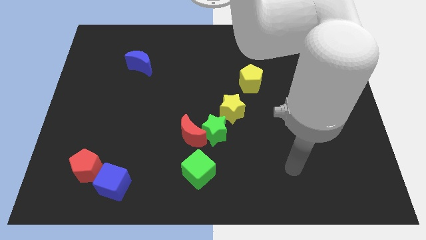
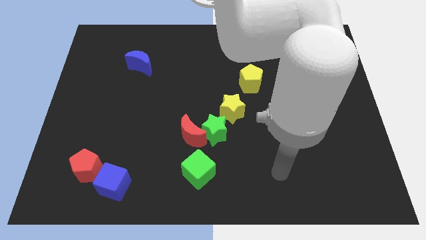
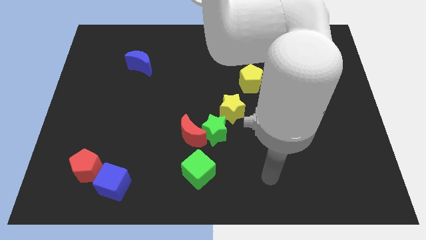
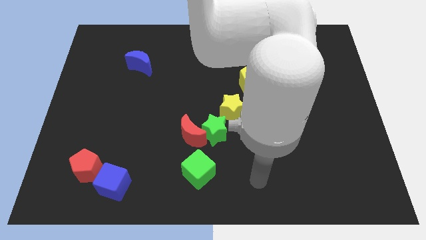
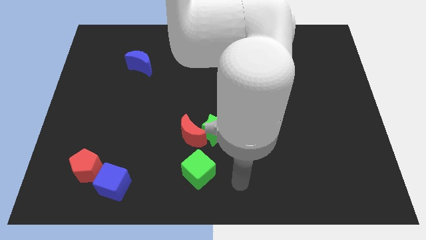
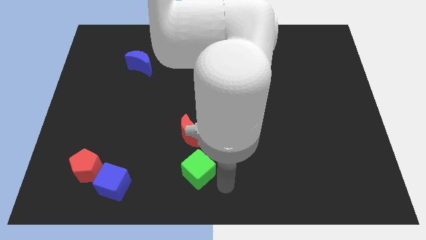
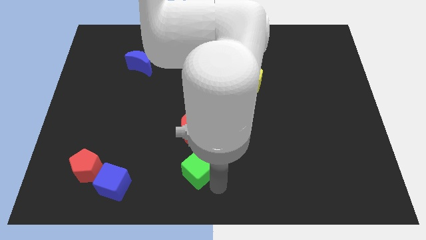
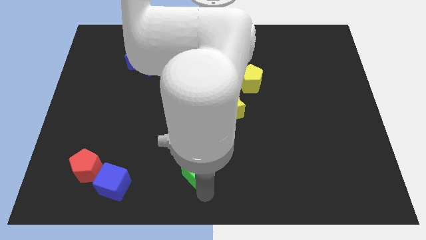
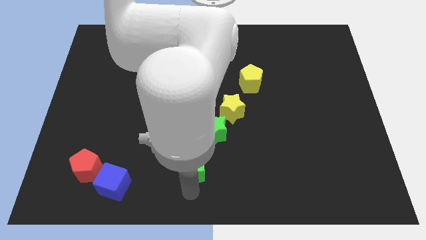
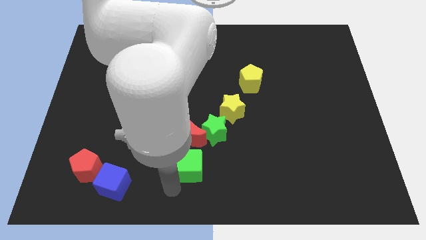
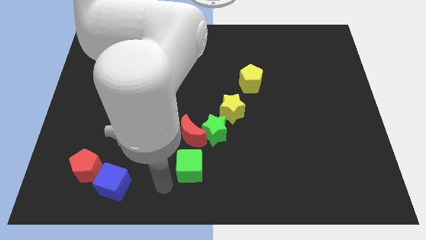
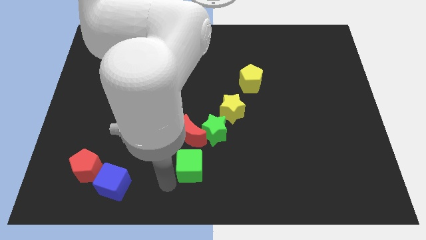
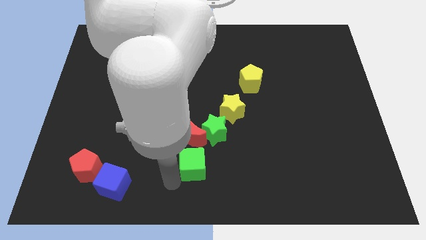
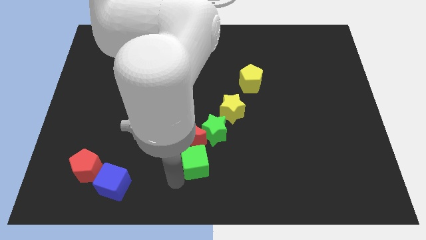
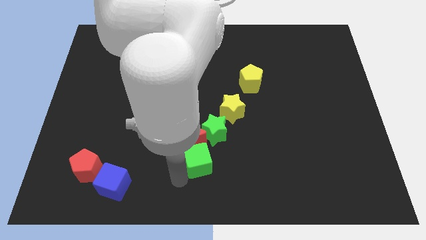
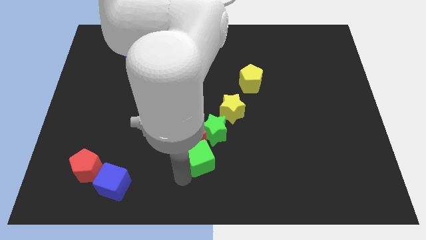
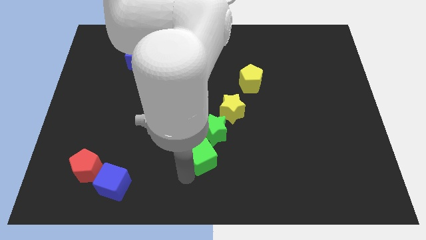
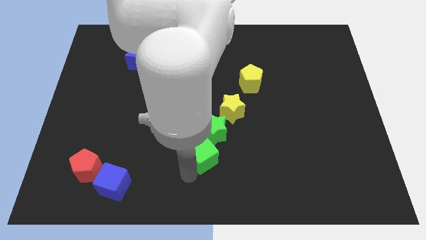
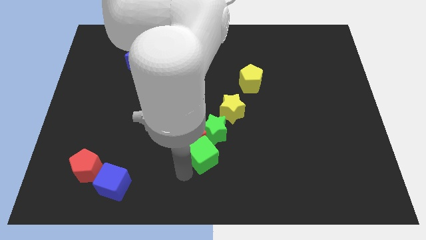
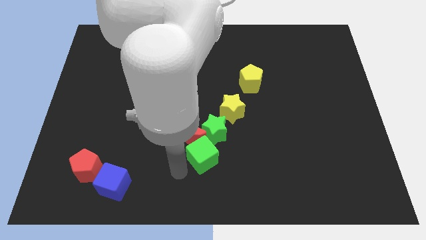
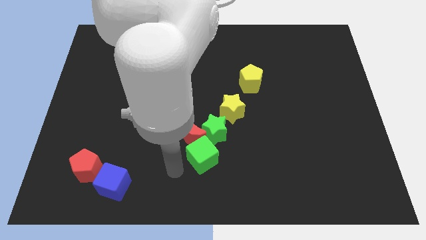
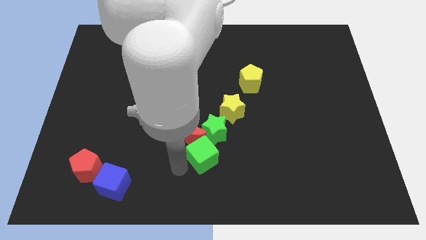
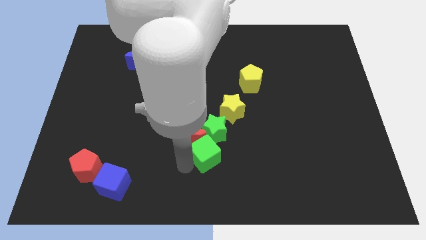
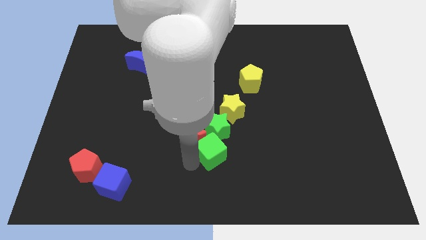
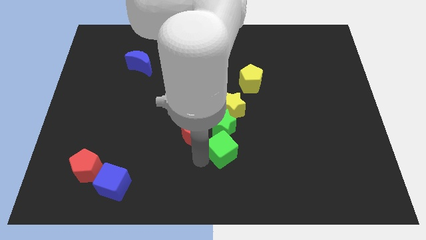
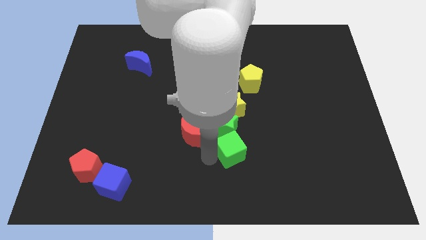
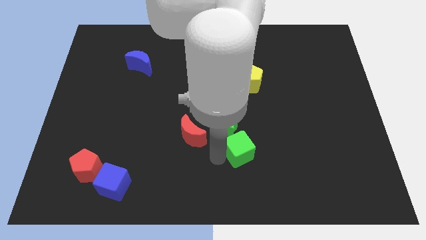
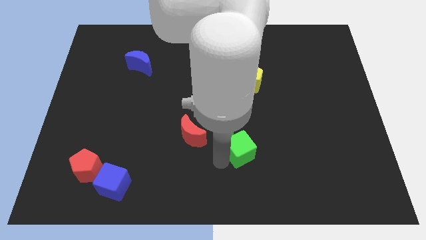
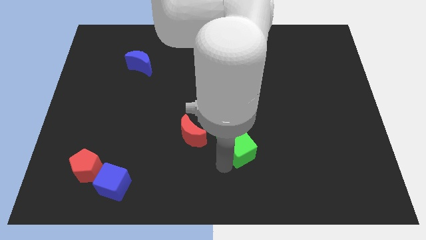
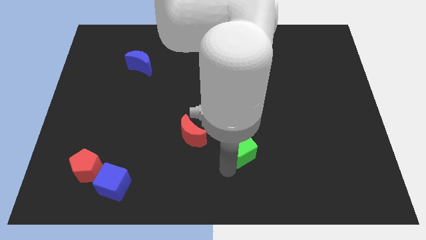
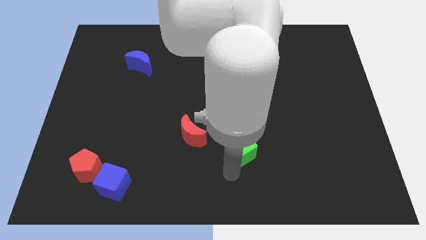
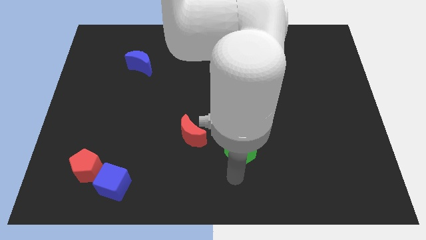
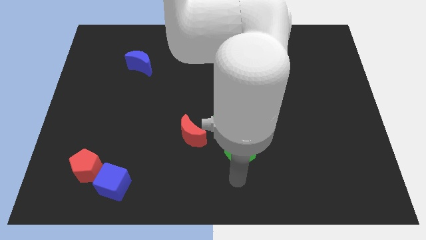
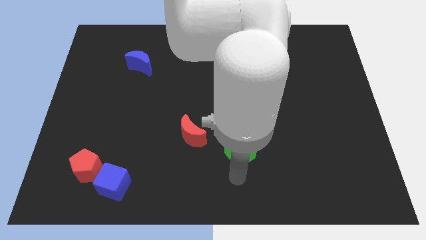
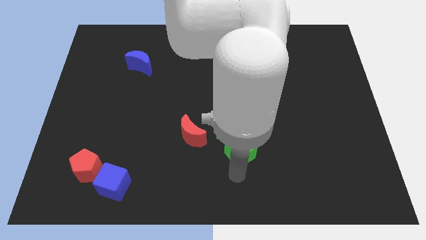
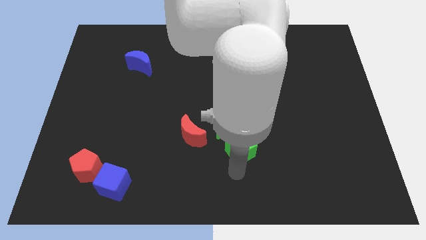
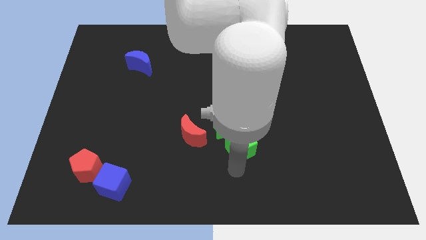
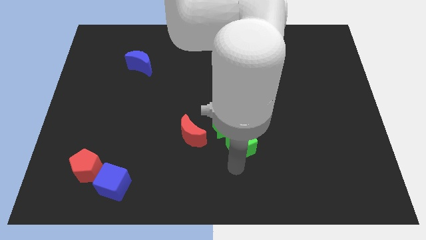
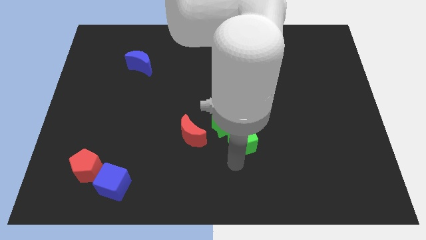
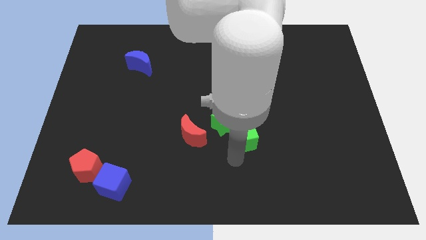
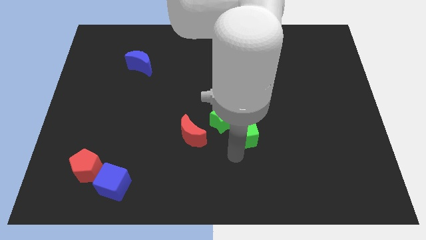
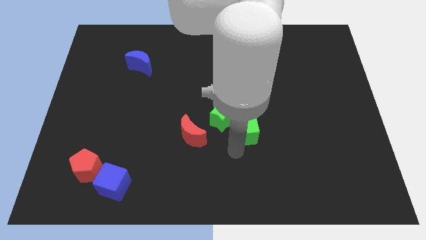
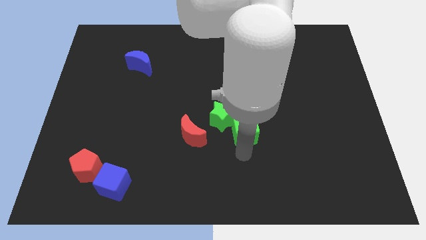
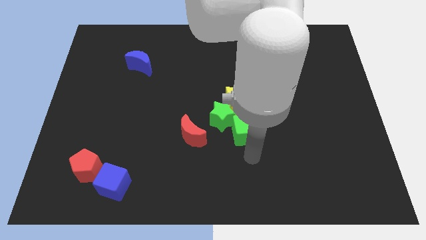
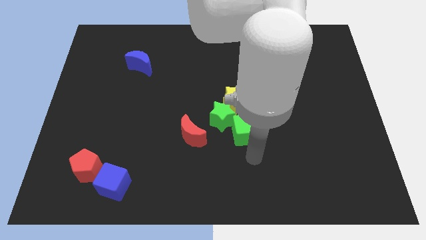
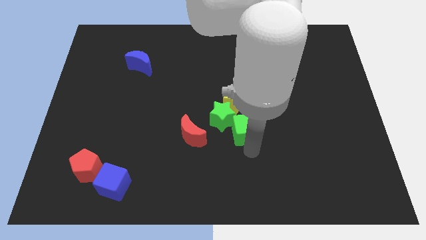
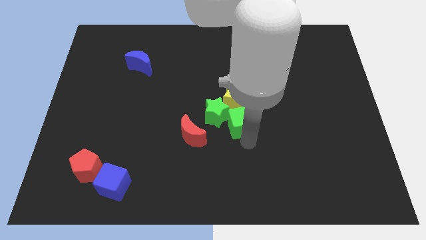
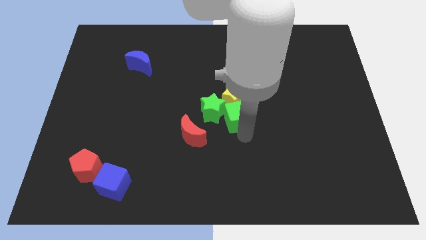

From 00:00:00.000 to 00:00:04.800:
slide the green cube next to the yellow star

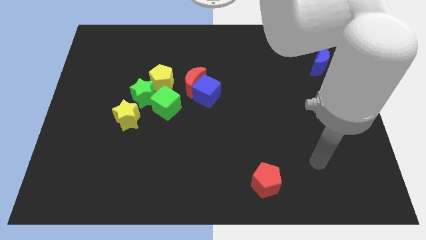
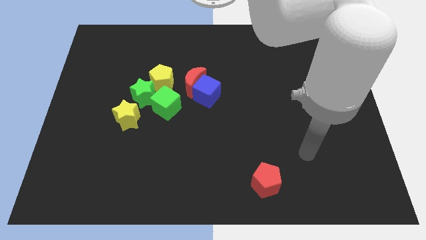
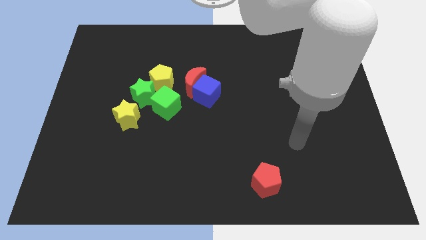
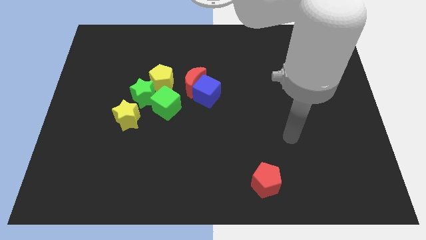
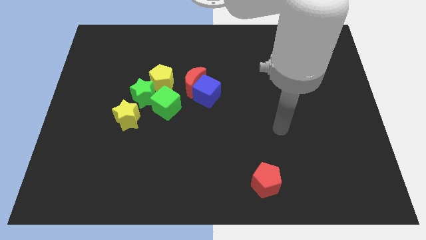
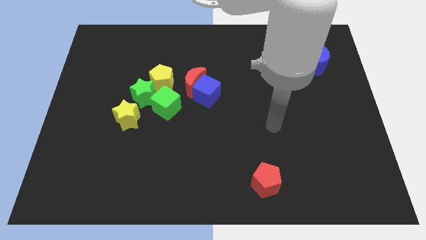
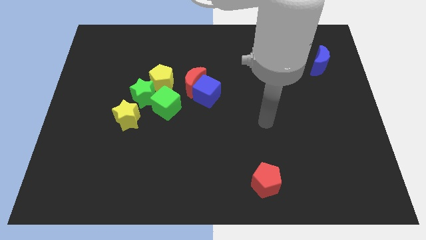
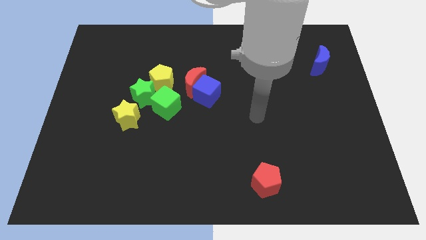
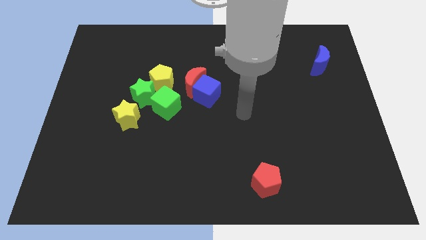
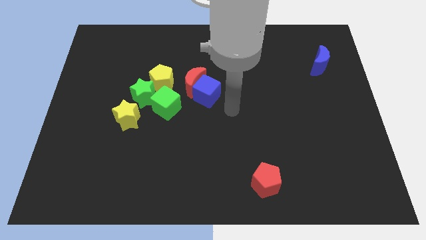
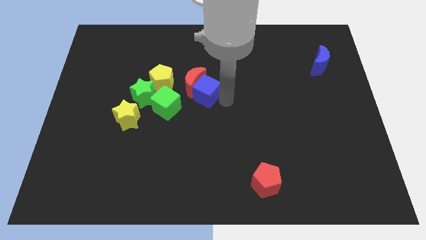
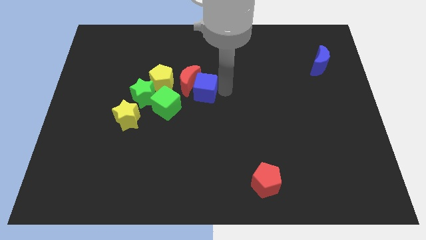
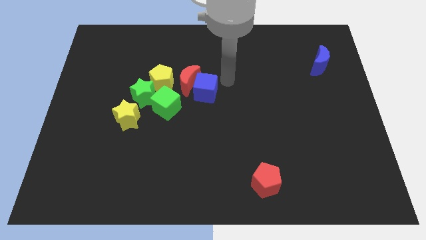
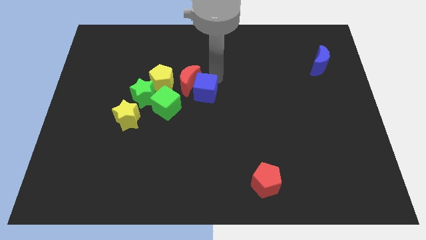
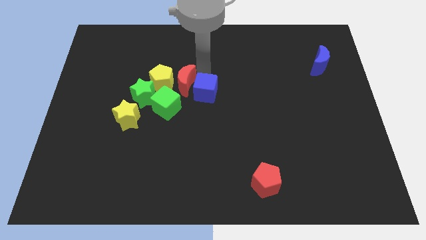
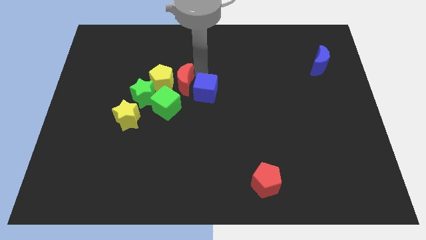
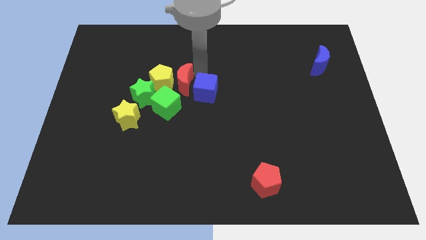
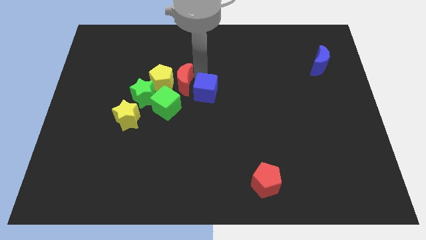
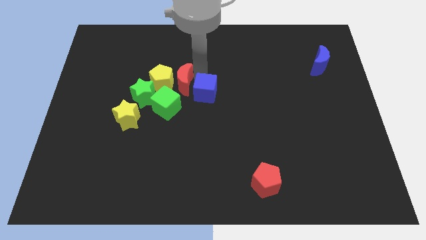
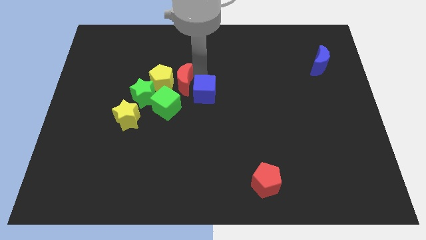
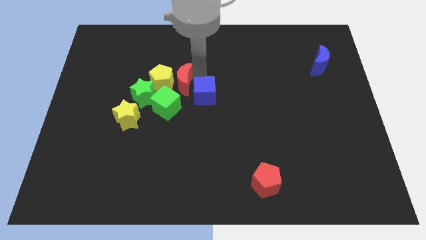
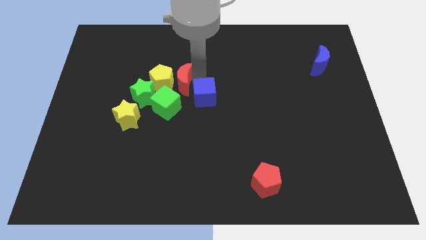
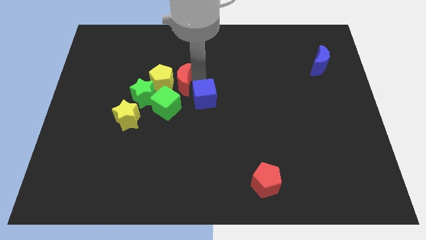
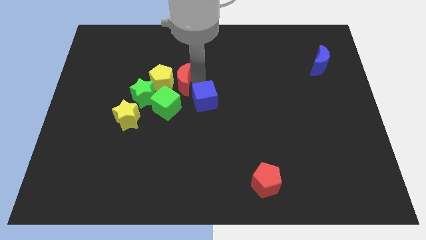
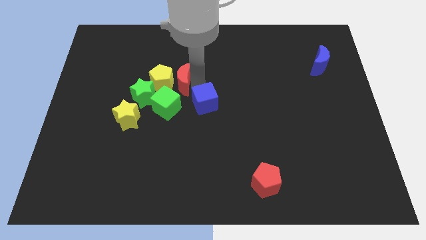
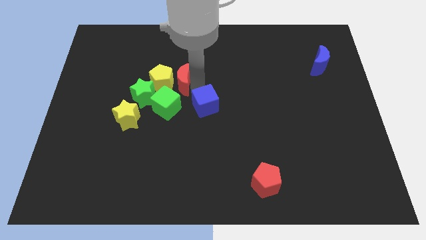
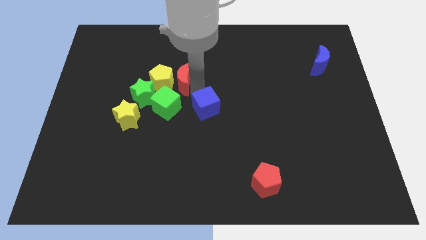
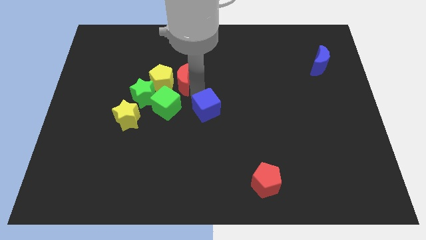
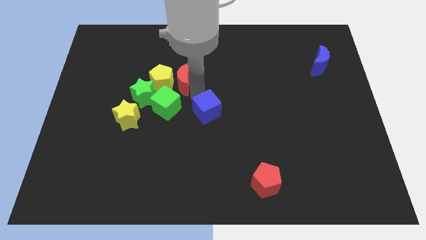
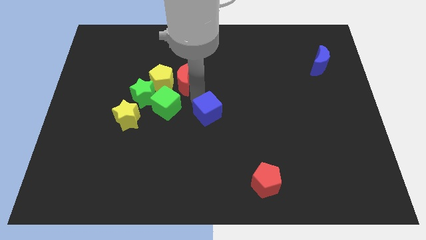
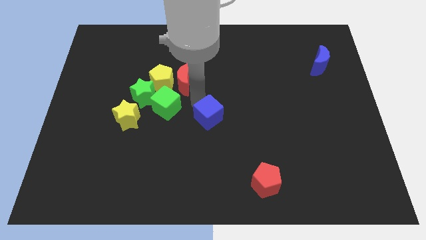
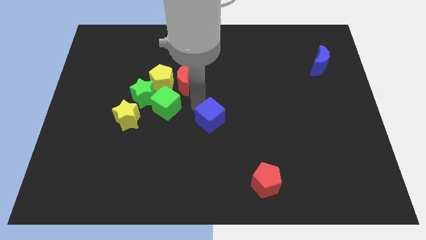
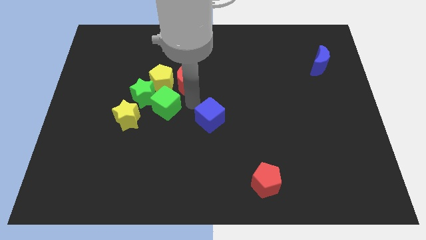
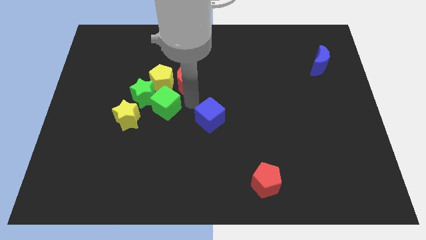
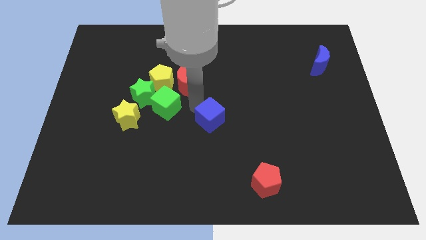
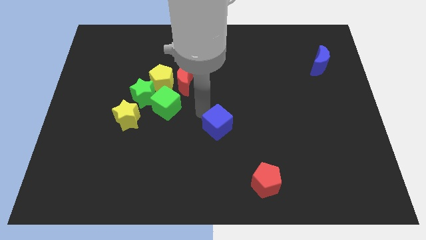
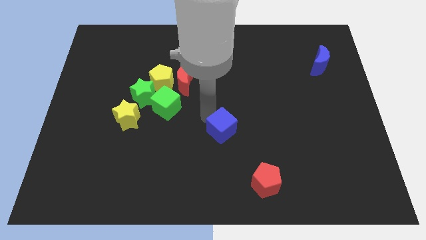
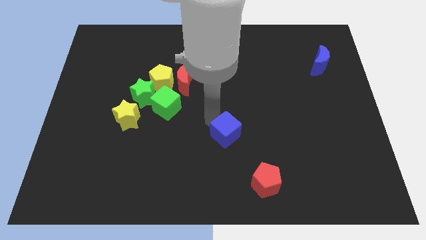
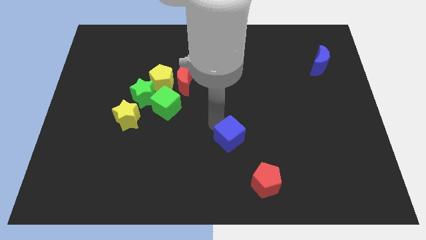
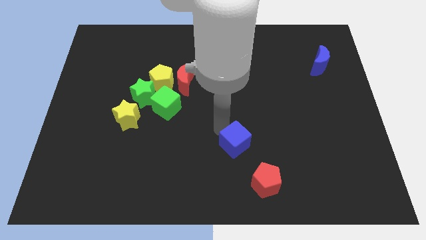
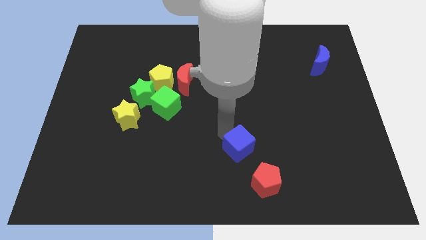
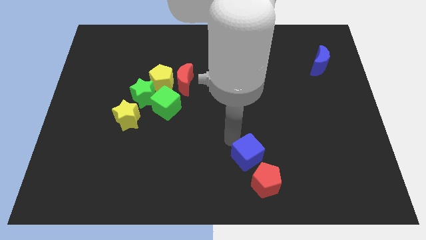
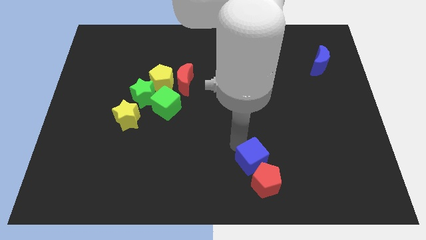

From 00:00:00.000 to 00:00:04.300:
move the blue cube to the red pentagon
